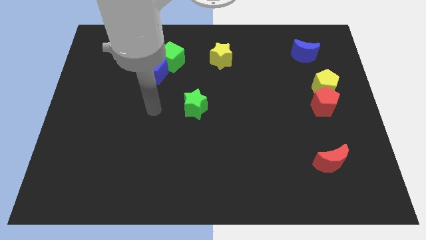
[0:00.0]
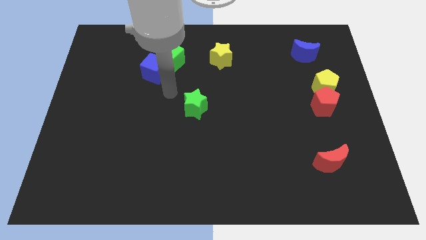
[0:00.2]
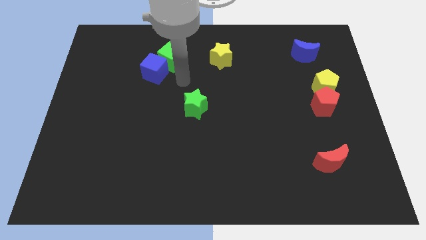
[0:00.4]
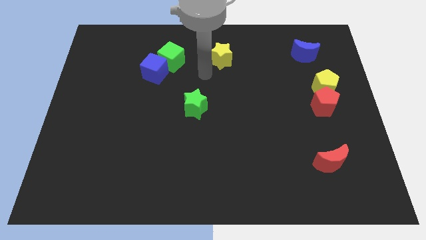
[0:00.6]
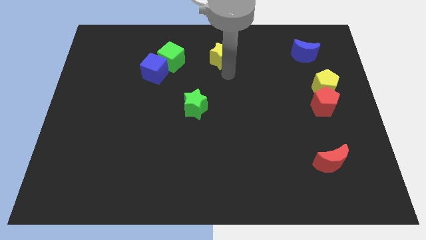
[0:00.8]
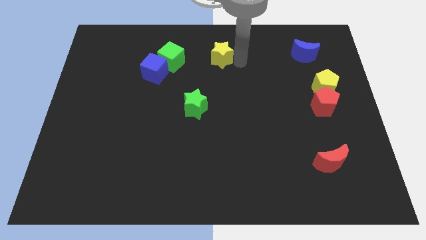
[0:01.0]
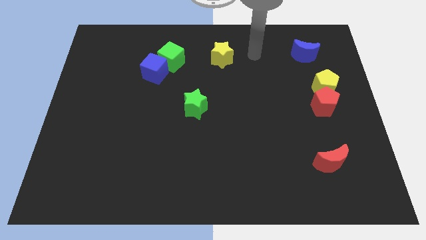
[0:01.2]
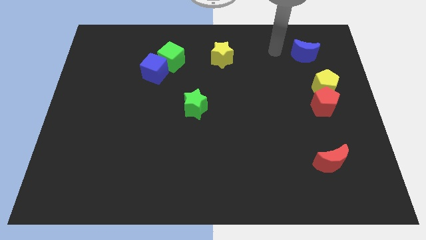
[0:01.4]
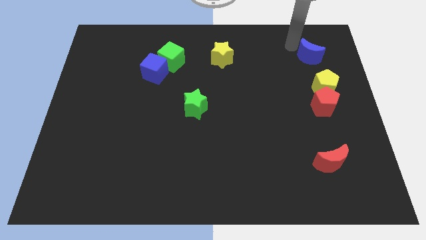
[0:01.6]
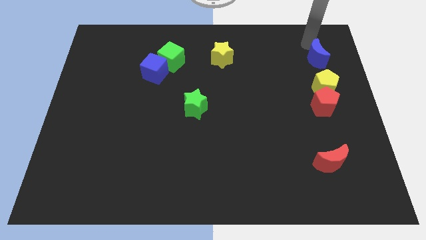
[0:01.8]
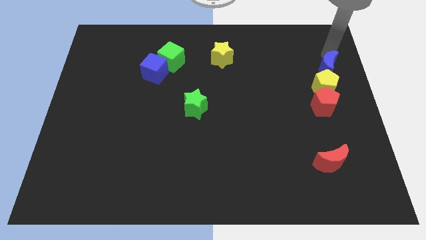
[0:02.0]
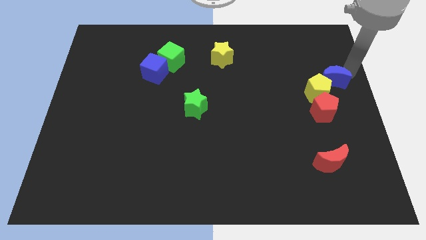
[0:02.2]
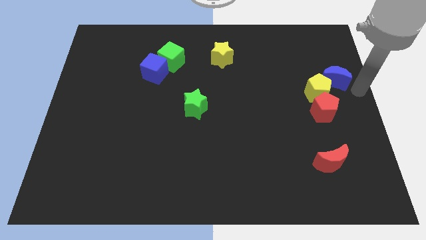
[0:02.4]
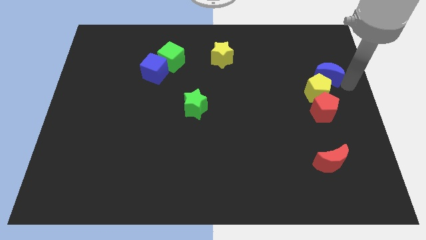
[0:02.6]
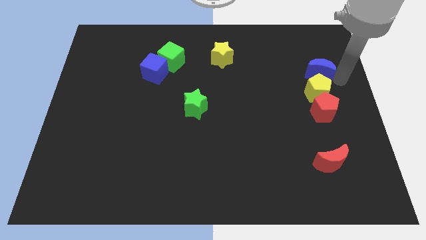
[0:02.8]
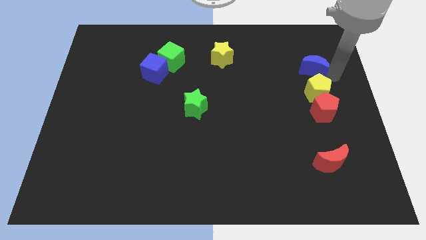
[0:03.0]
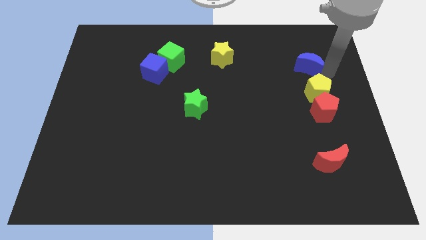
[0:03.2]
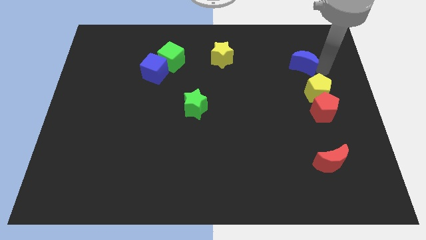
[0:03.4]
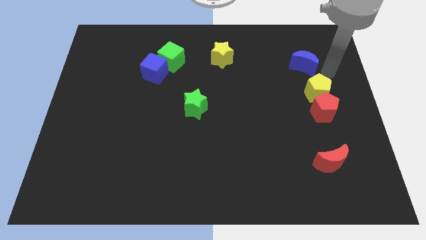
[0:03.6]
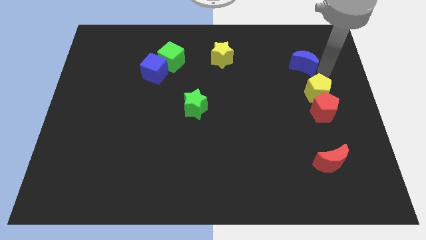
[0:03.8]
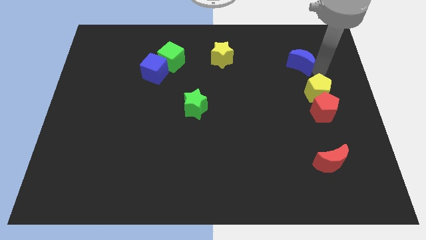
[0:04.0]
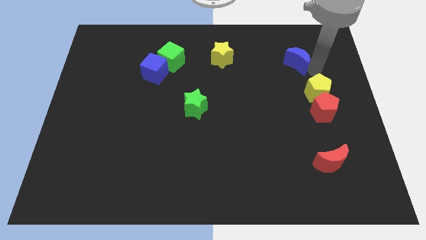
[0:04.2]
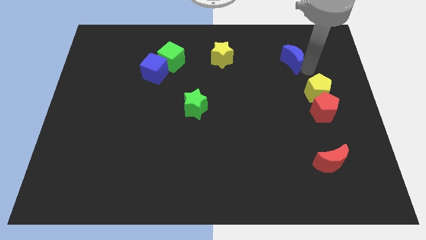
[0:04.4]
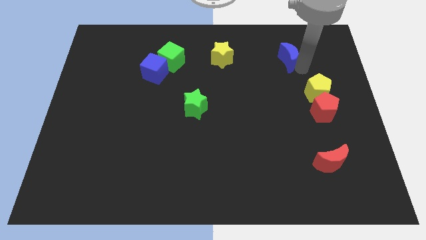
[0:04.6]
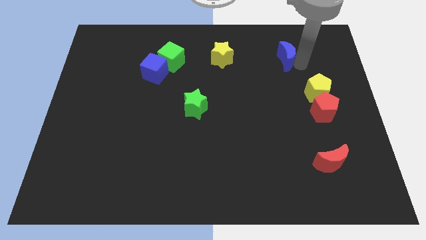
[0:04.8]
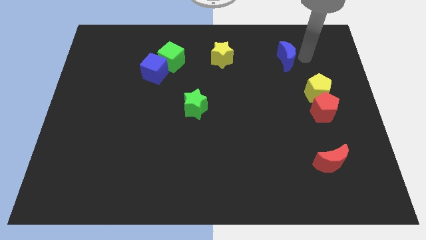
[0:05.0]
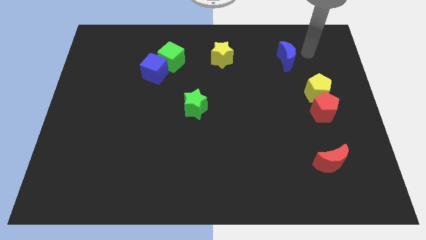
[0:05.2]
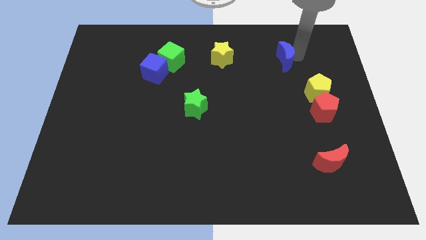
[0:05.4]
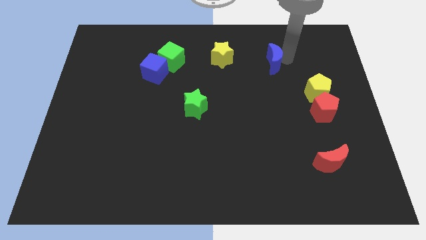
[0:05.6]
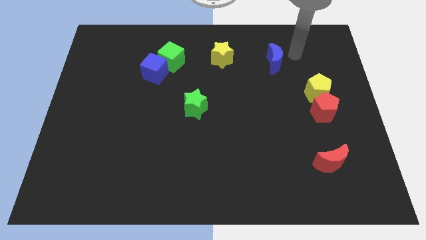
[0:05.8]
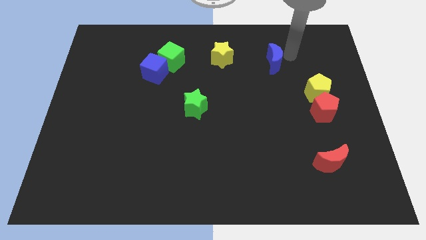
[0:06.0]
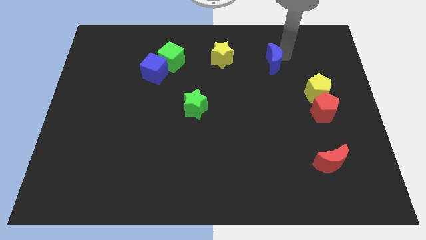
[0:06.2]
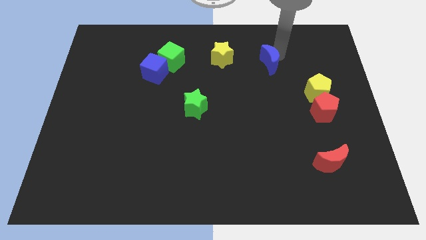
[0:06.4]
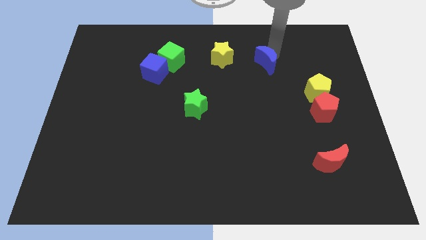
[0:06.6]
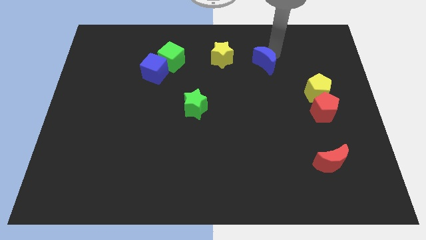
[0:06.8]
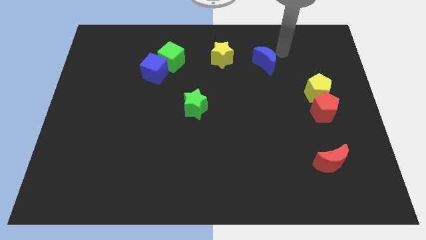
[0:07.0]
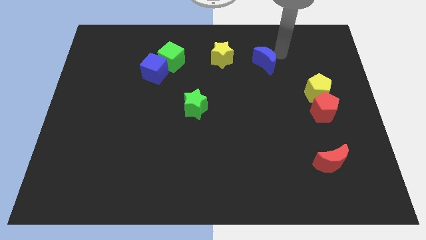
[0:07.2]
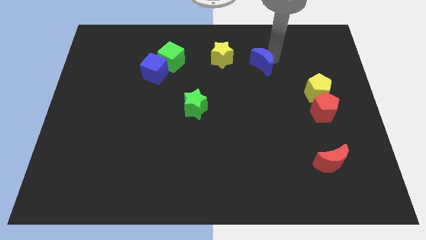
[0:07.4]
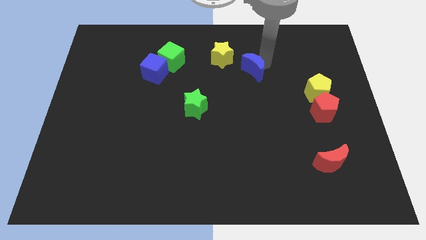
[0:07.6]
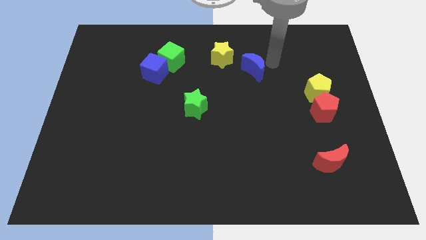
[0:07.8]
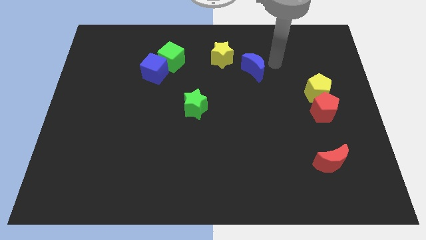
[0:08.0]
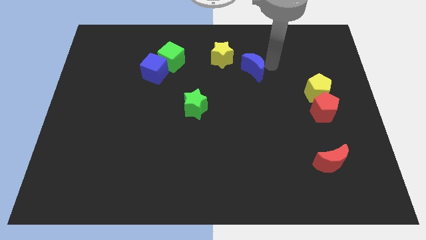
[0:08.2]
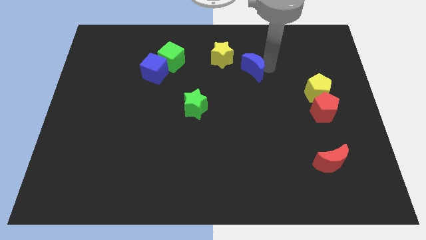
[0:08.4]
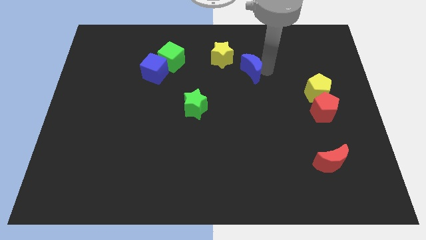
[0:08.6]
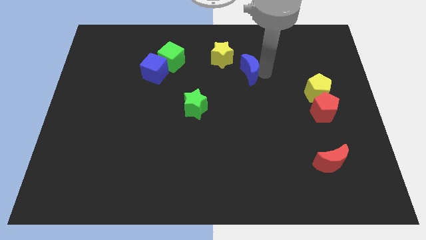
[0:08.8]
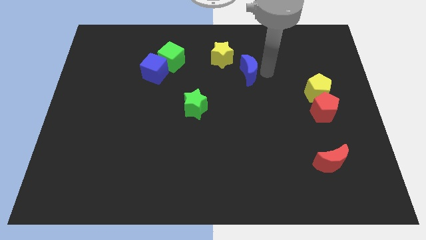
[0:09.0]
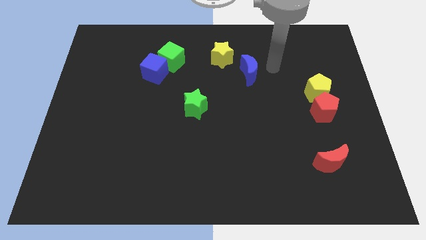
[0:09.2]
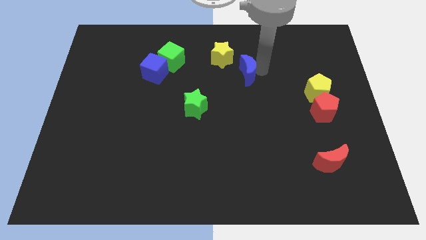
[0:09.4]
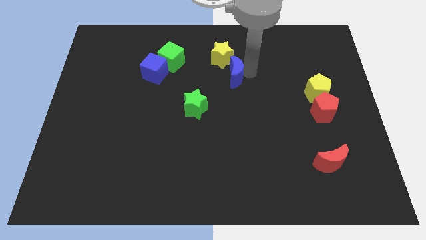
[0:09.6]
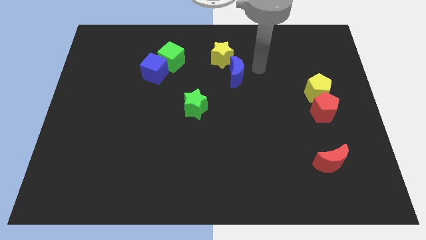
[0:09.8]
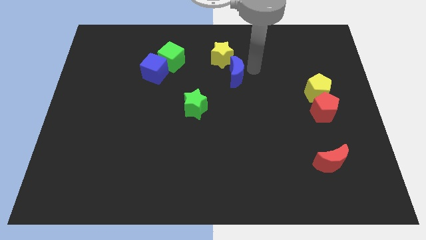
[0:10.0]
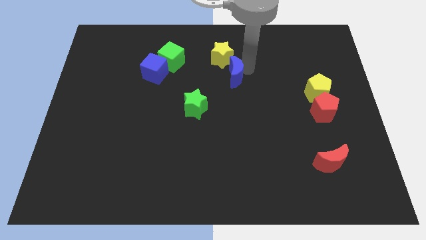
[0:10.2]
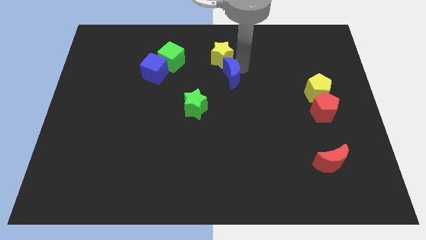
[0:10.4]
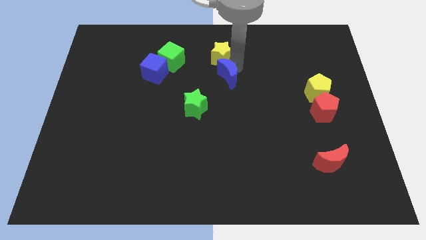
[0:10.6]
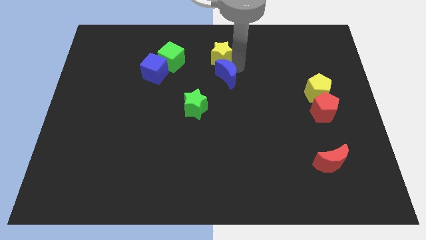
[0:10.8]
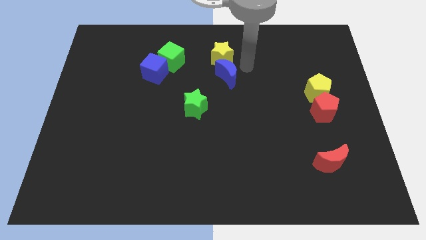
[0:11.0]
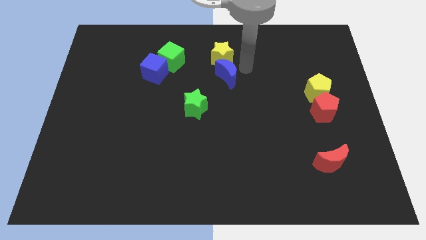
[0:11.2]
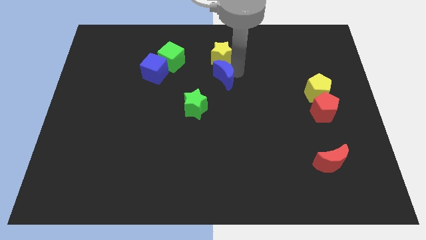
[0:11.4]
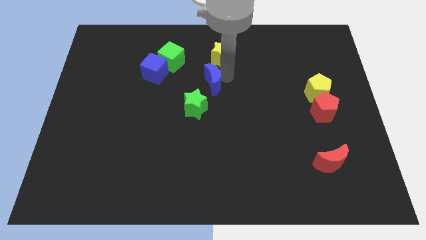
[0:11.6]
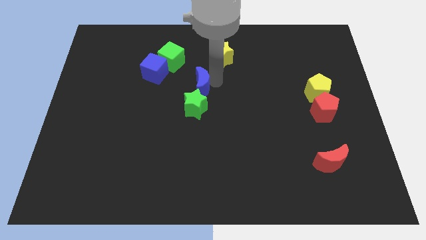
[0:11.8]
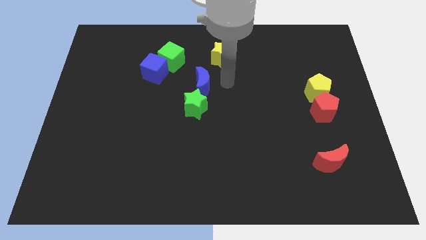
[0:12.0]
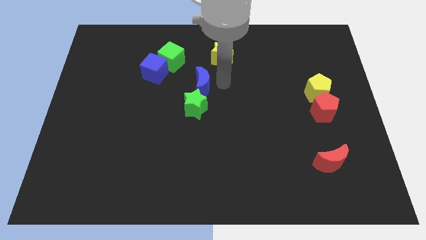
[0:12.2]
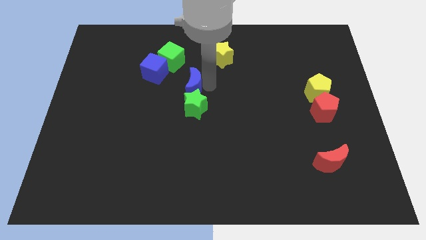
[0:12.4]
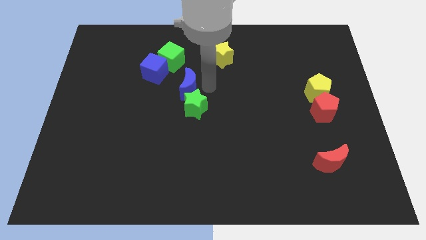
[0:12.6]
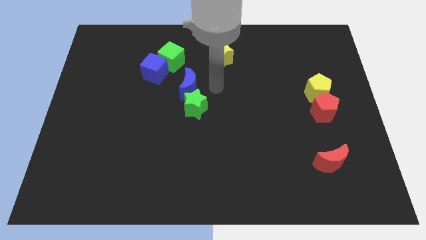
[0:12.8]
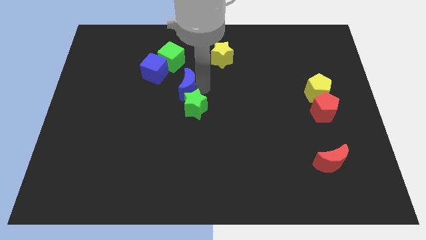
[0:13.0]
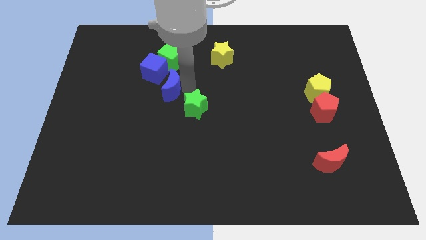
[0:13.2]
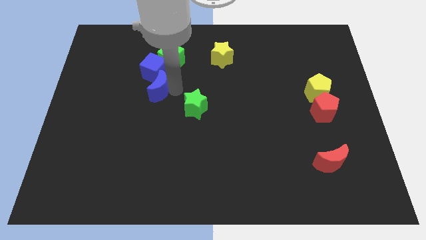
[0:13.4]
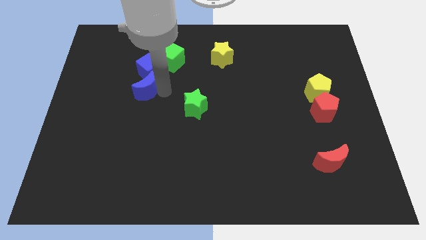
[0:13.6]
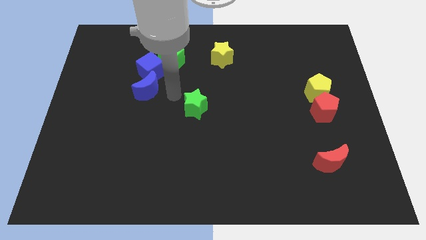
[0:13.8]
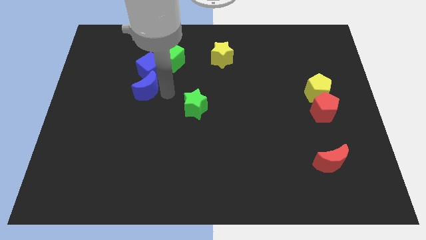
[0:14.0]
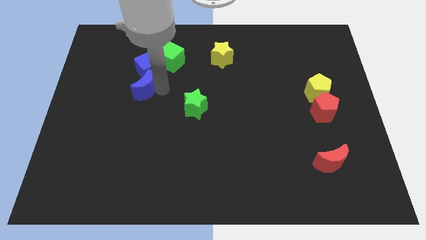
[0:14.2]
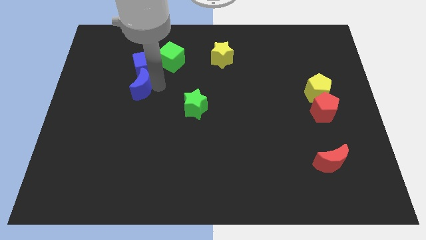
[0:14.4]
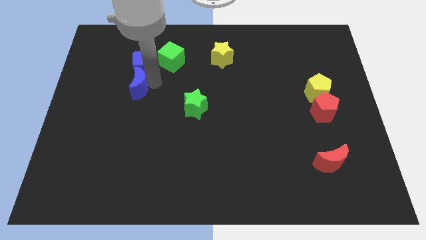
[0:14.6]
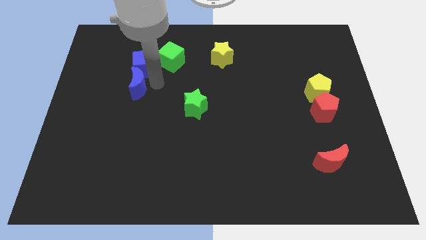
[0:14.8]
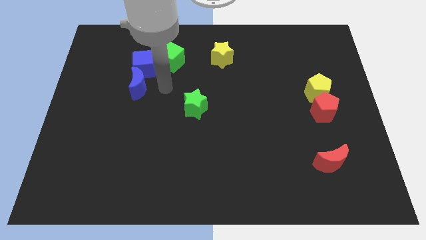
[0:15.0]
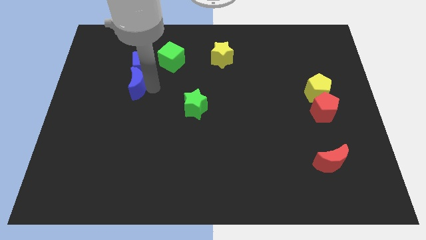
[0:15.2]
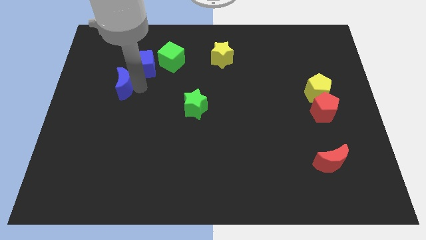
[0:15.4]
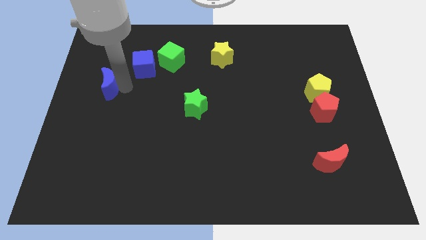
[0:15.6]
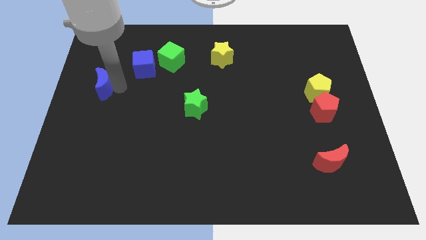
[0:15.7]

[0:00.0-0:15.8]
move the blue moon to the left side of the board
